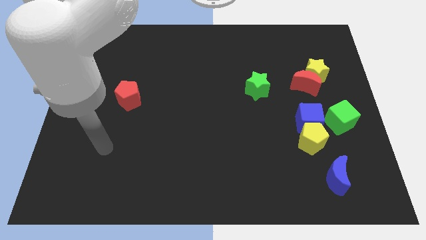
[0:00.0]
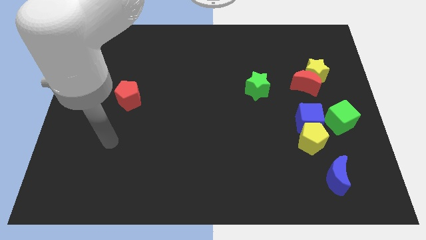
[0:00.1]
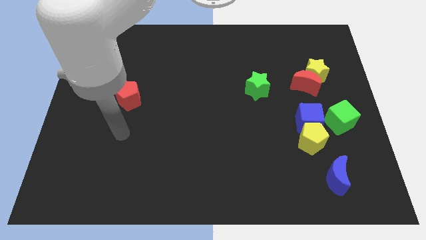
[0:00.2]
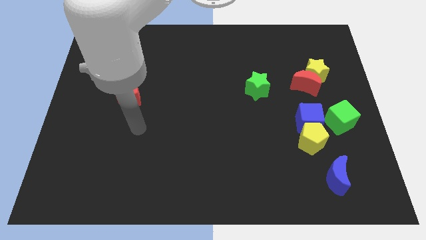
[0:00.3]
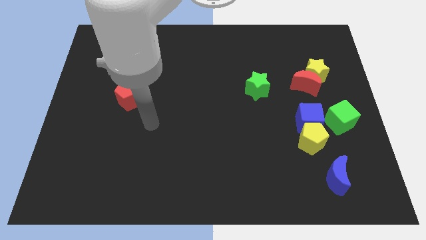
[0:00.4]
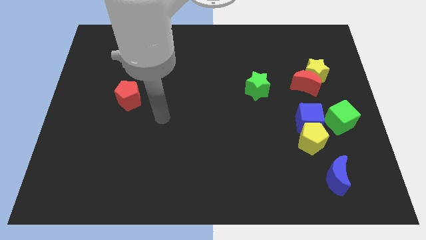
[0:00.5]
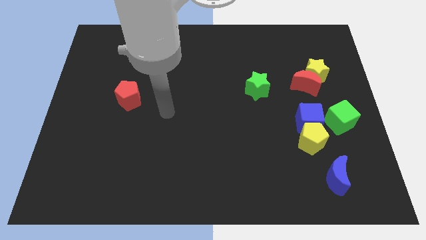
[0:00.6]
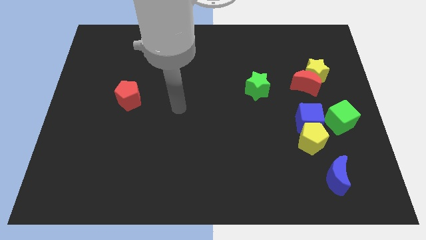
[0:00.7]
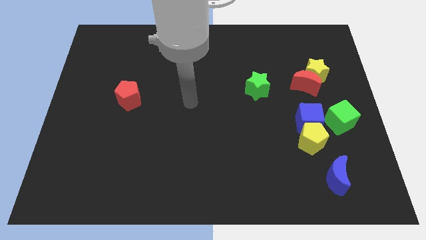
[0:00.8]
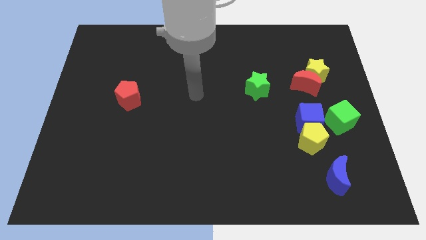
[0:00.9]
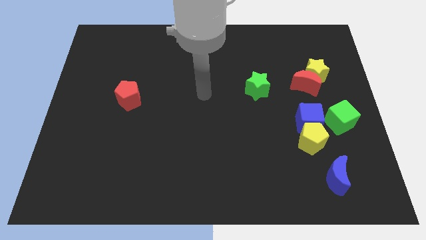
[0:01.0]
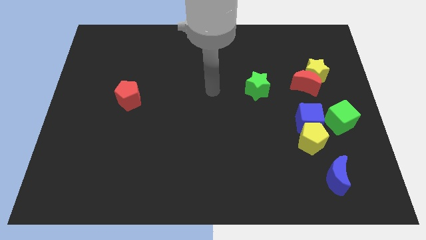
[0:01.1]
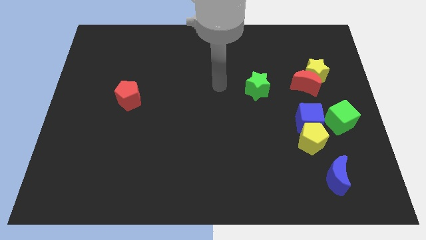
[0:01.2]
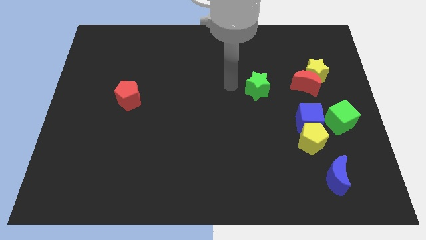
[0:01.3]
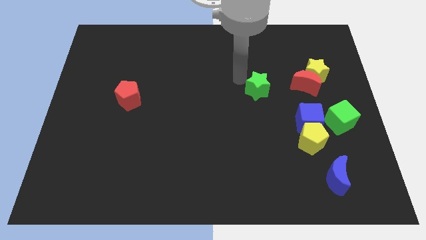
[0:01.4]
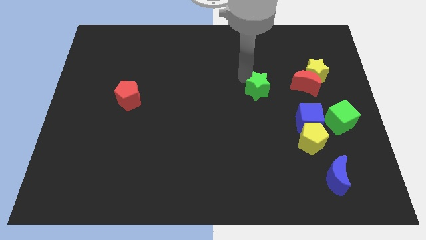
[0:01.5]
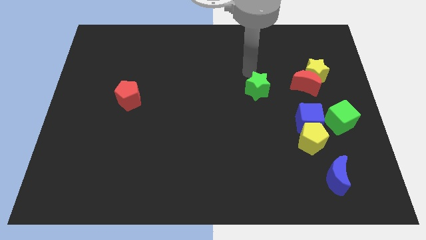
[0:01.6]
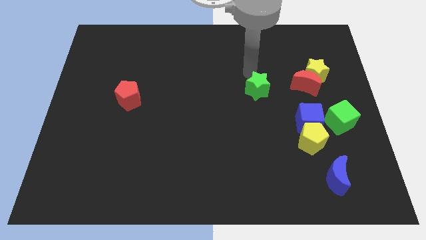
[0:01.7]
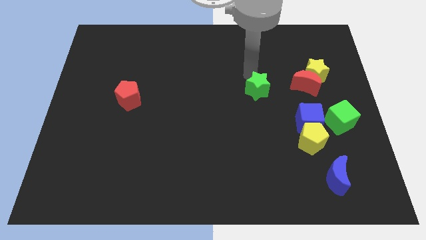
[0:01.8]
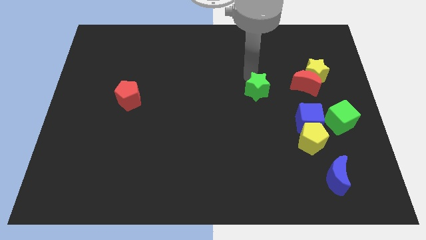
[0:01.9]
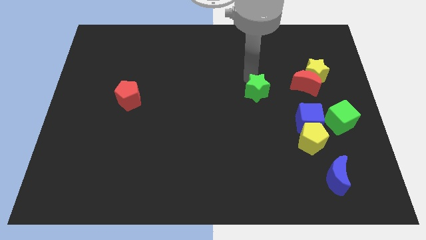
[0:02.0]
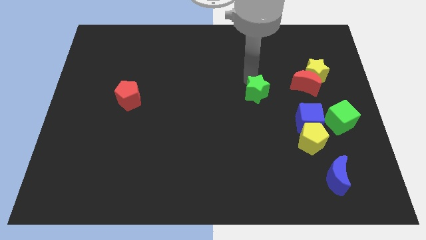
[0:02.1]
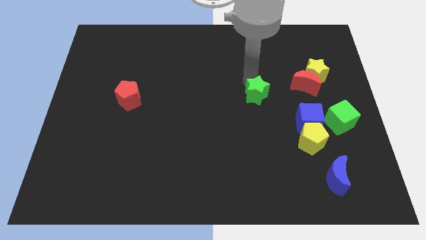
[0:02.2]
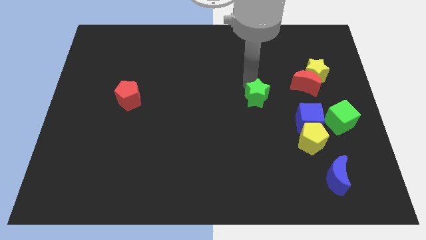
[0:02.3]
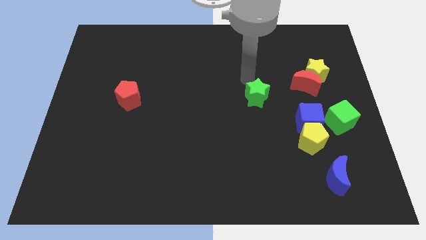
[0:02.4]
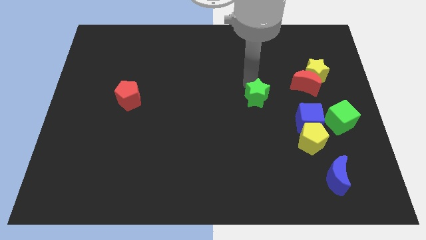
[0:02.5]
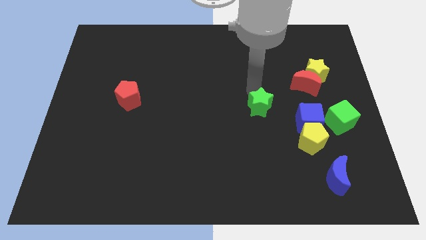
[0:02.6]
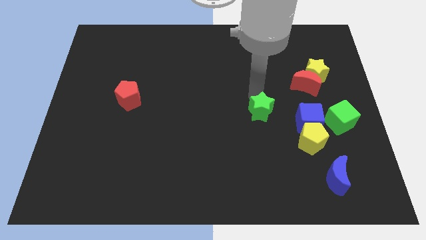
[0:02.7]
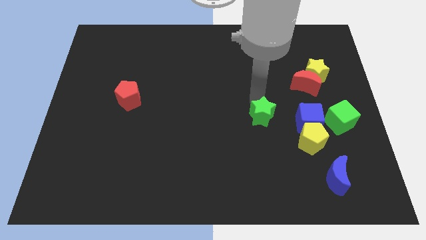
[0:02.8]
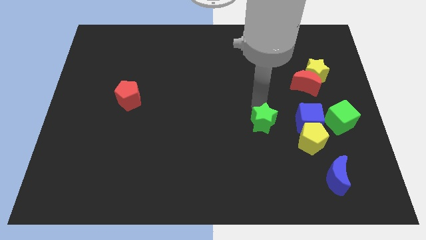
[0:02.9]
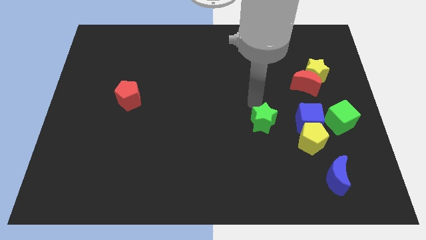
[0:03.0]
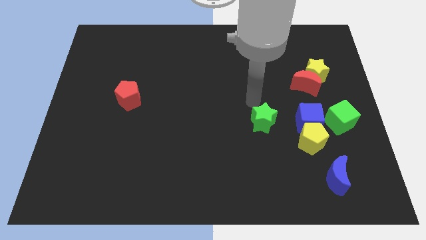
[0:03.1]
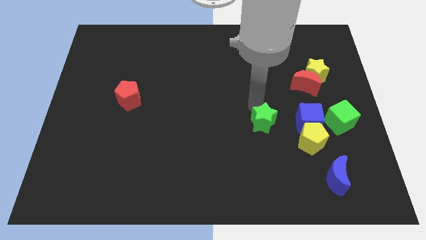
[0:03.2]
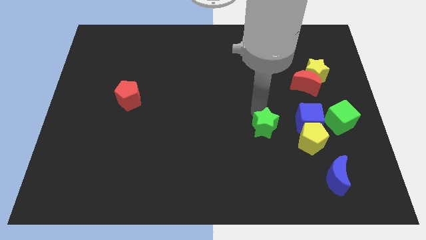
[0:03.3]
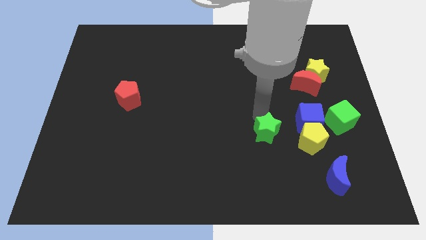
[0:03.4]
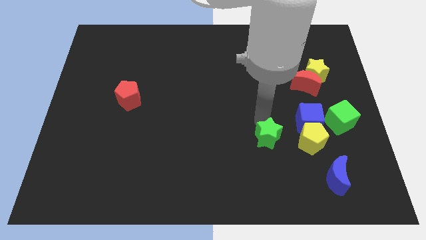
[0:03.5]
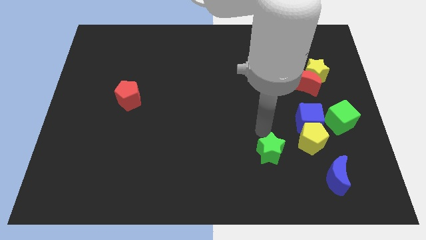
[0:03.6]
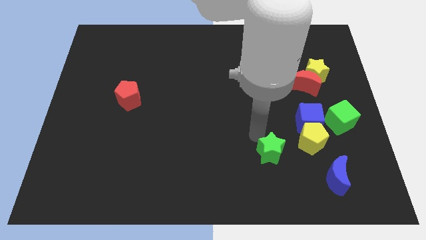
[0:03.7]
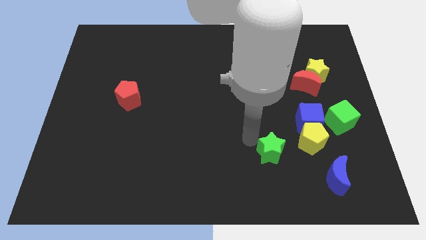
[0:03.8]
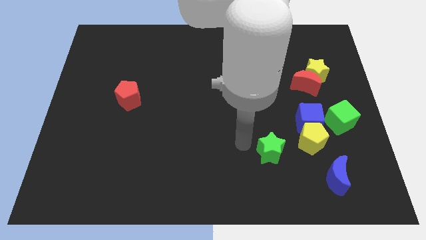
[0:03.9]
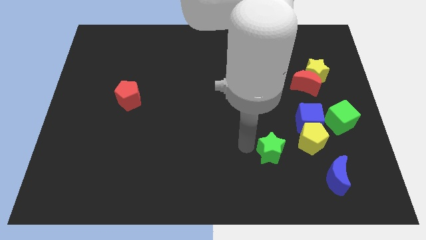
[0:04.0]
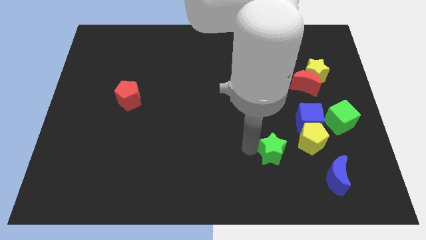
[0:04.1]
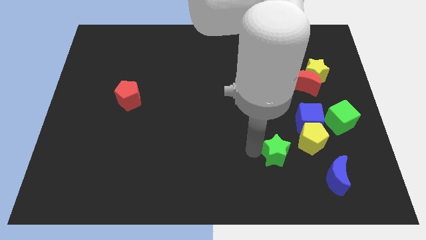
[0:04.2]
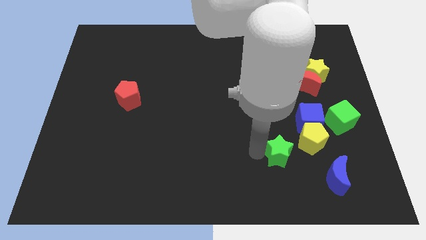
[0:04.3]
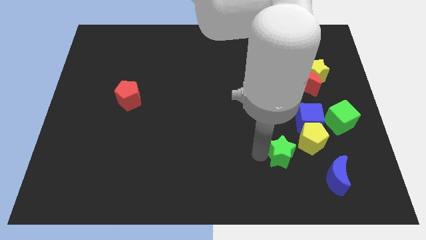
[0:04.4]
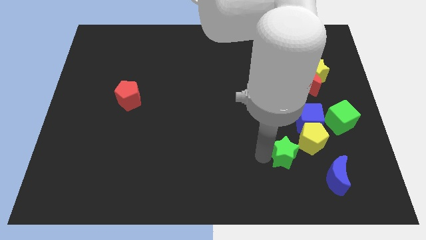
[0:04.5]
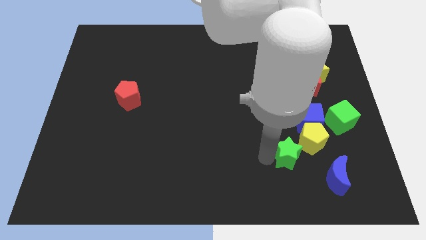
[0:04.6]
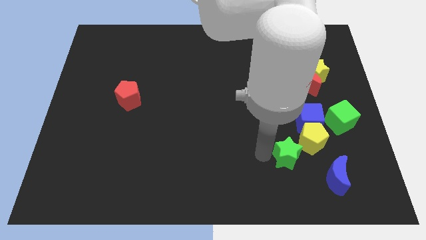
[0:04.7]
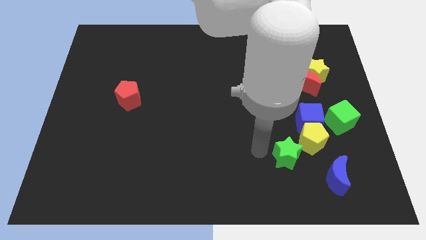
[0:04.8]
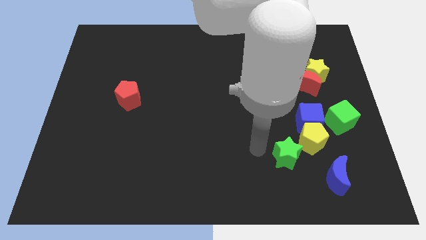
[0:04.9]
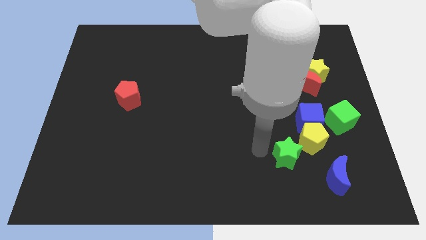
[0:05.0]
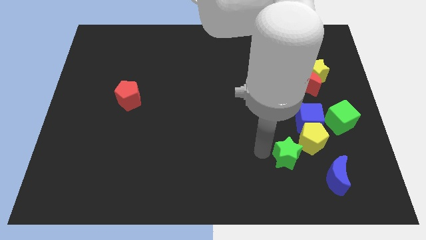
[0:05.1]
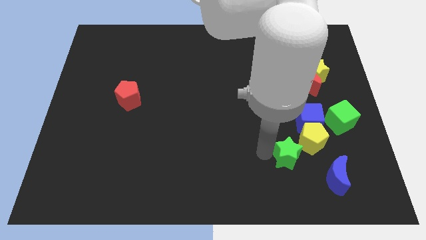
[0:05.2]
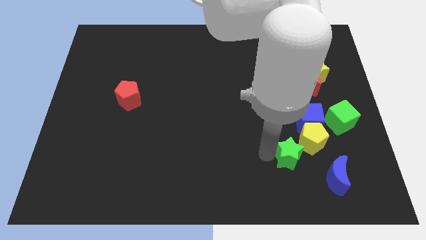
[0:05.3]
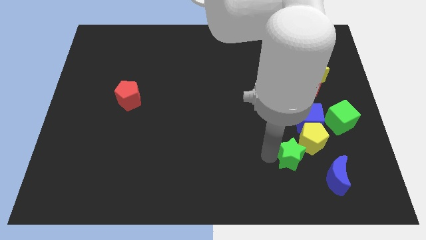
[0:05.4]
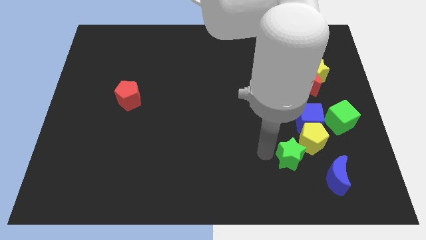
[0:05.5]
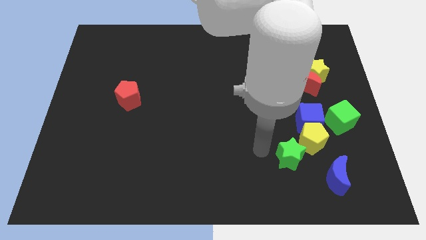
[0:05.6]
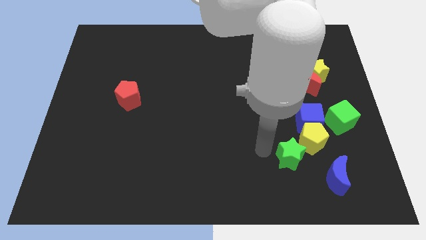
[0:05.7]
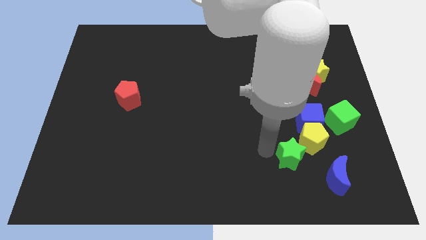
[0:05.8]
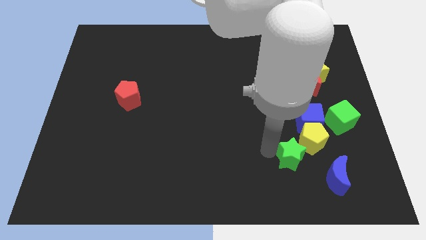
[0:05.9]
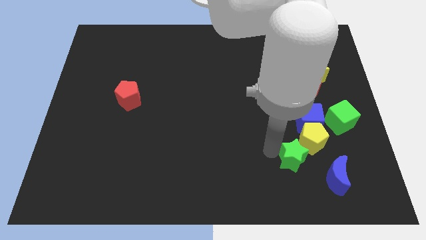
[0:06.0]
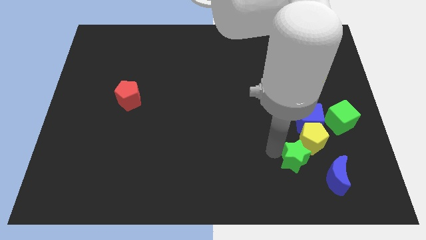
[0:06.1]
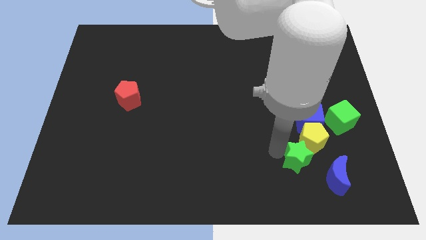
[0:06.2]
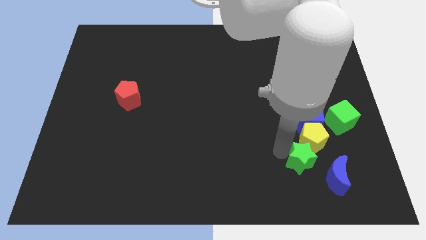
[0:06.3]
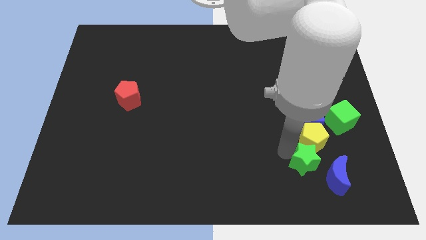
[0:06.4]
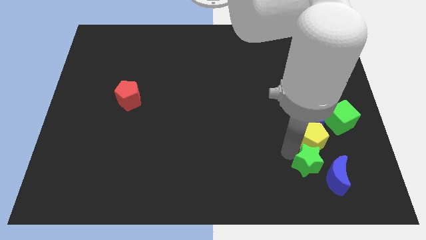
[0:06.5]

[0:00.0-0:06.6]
move the green star to the blue moon

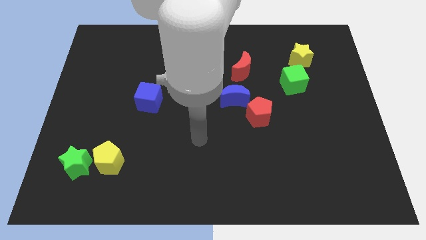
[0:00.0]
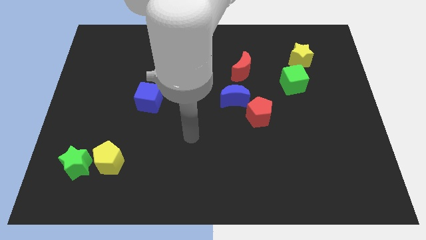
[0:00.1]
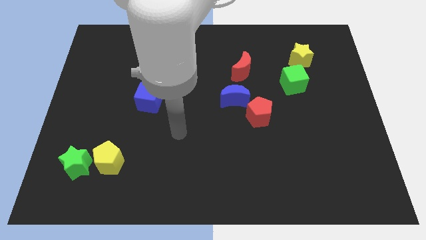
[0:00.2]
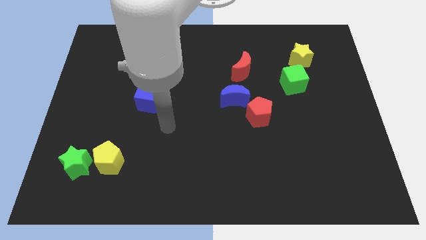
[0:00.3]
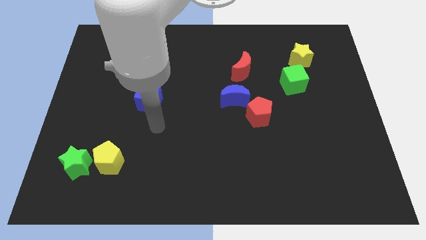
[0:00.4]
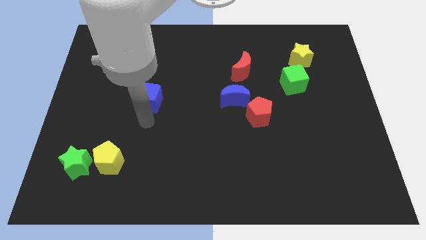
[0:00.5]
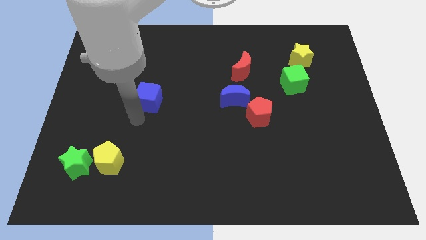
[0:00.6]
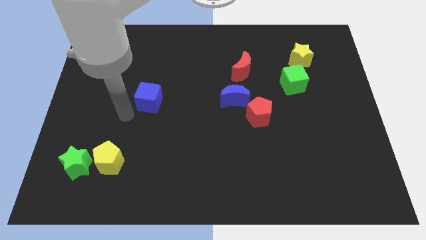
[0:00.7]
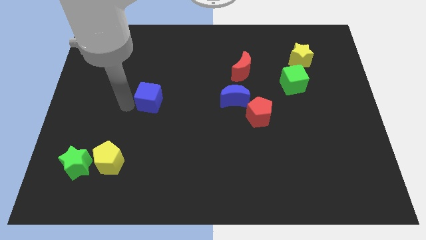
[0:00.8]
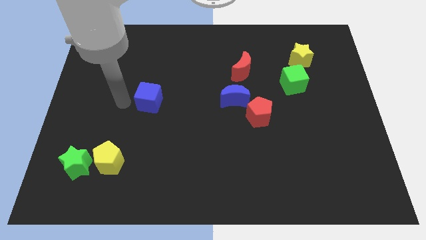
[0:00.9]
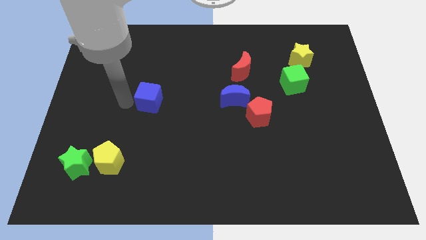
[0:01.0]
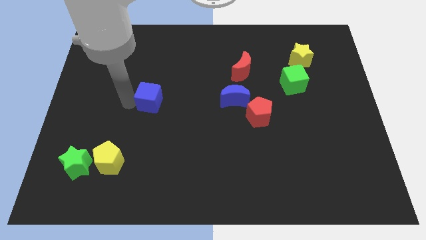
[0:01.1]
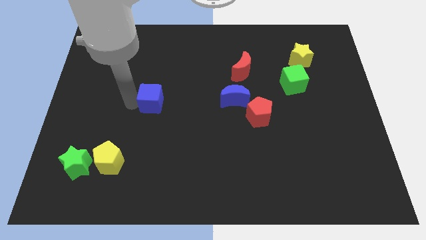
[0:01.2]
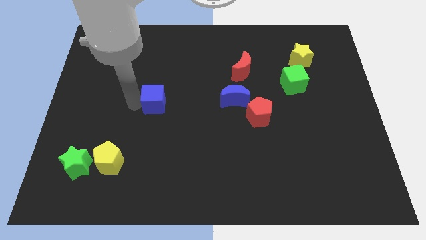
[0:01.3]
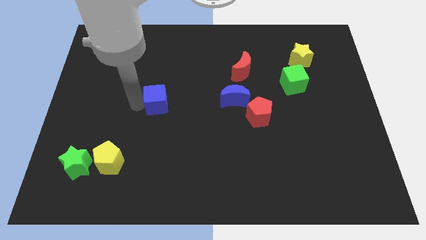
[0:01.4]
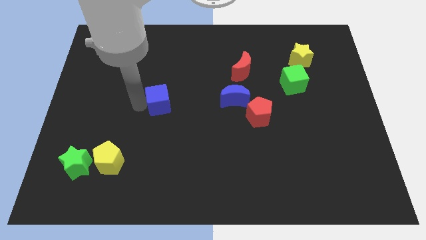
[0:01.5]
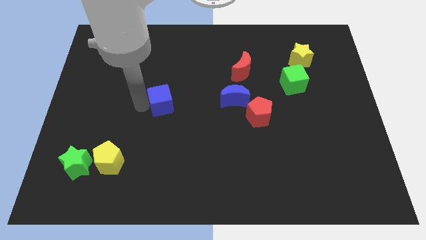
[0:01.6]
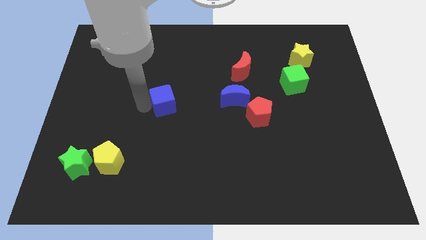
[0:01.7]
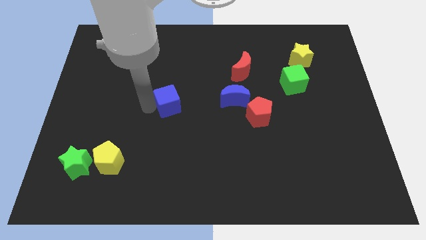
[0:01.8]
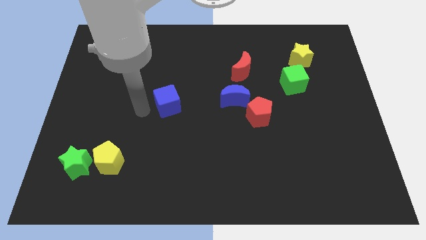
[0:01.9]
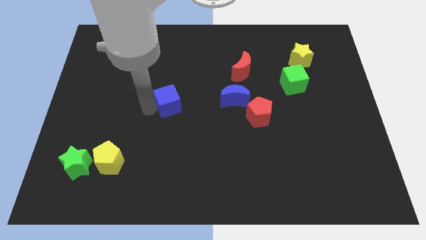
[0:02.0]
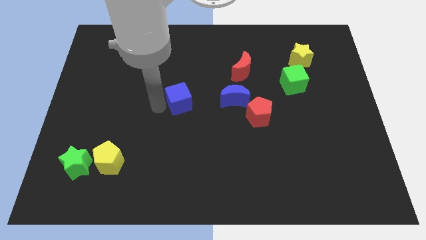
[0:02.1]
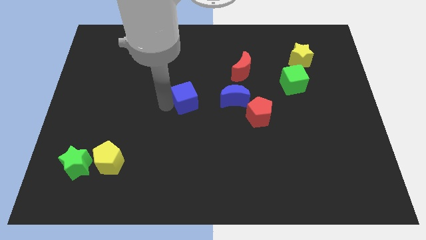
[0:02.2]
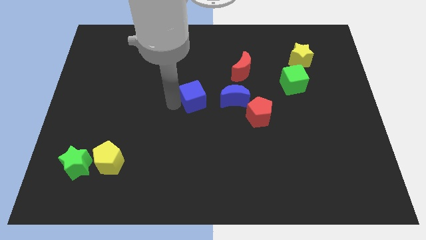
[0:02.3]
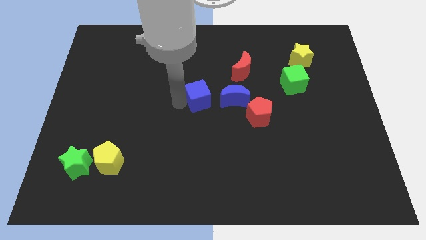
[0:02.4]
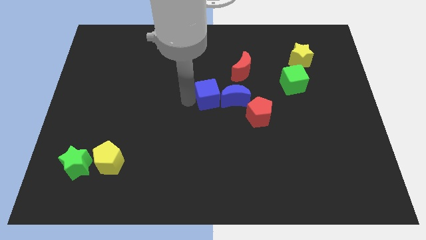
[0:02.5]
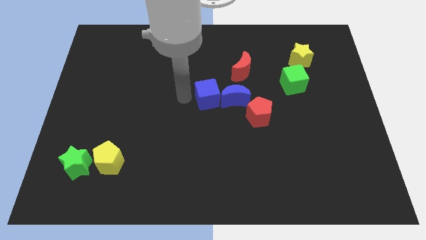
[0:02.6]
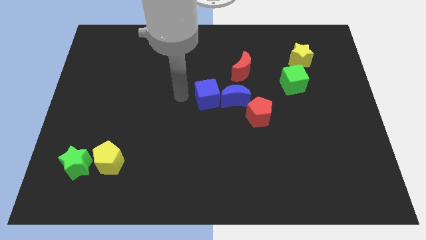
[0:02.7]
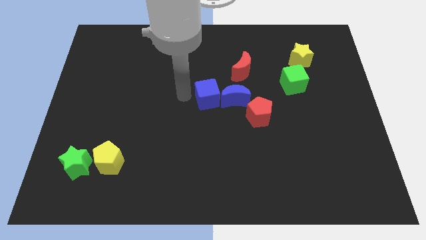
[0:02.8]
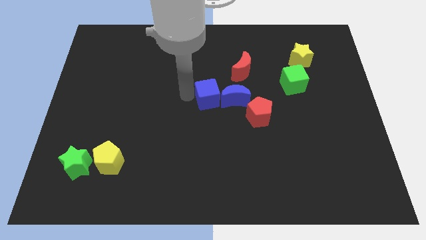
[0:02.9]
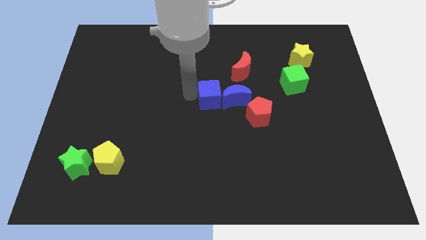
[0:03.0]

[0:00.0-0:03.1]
push the blue cube towards the blue moon
